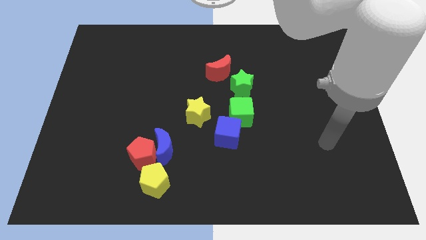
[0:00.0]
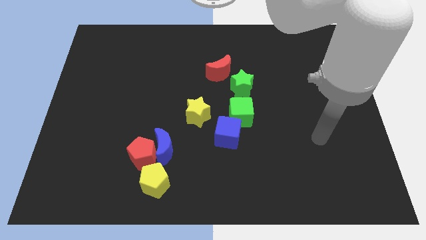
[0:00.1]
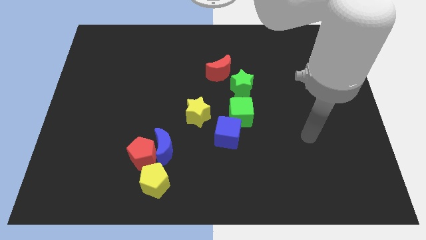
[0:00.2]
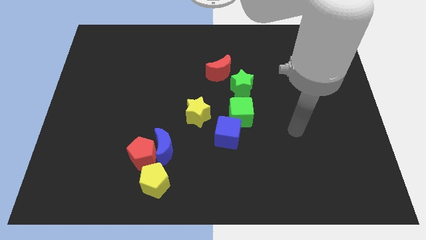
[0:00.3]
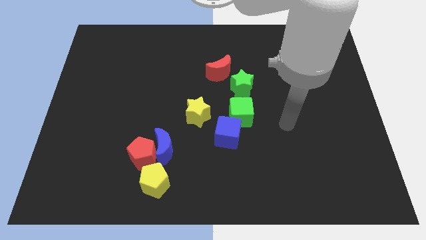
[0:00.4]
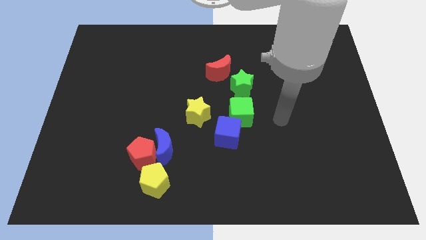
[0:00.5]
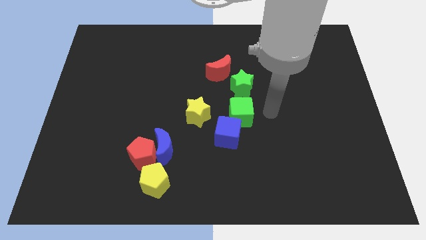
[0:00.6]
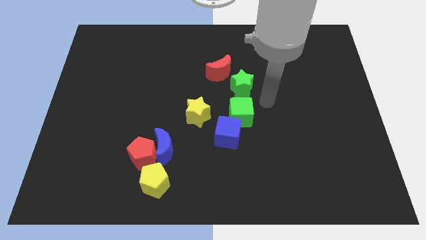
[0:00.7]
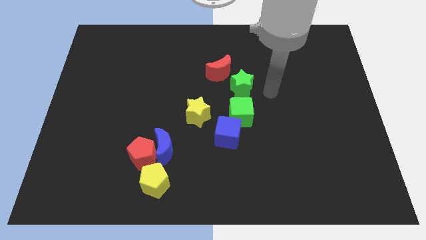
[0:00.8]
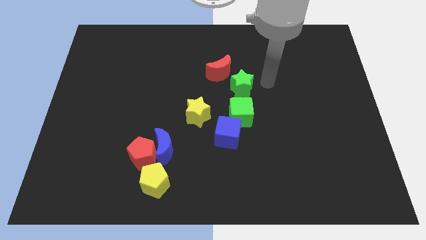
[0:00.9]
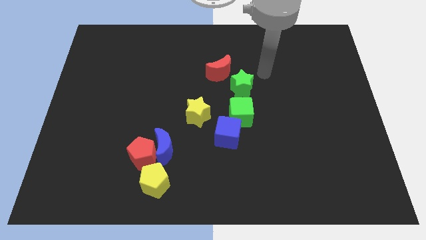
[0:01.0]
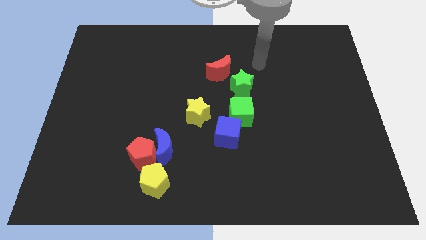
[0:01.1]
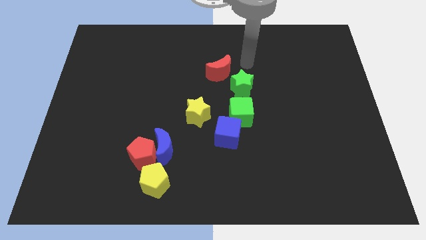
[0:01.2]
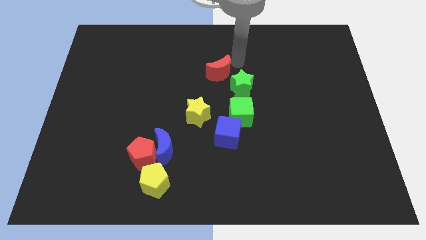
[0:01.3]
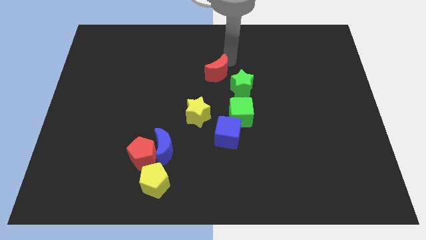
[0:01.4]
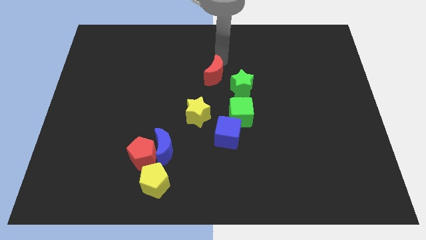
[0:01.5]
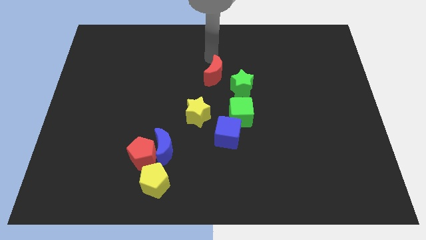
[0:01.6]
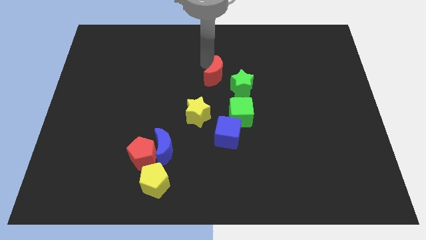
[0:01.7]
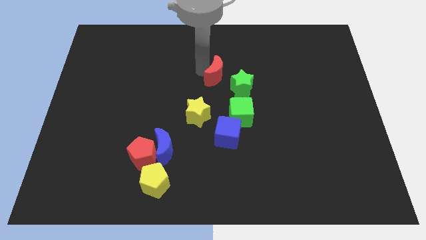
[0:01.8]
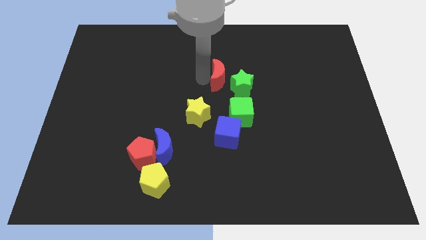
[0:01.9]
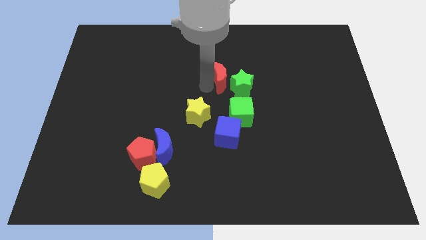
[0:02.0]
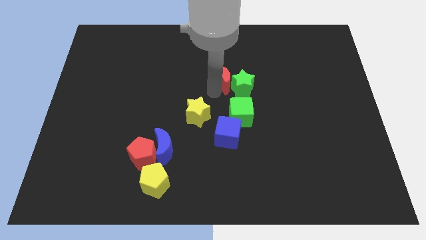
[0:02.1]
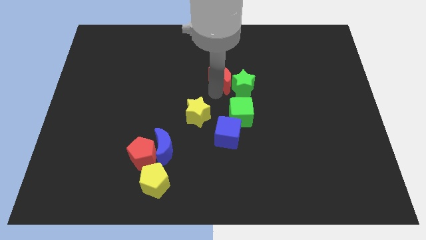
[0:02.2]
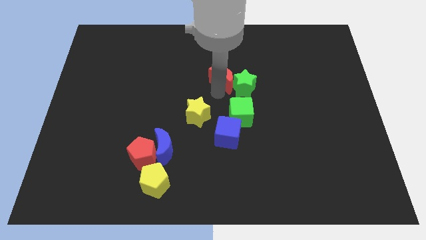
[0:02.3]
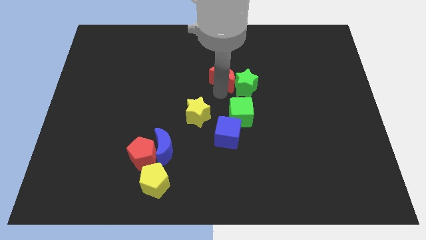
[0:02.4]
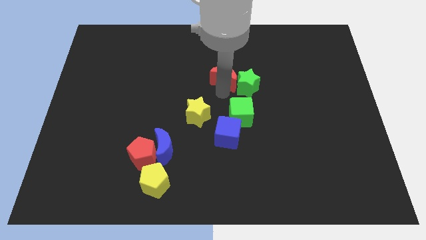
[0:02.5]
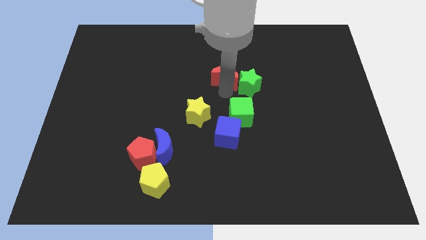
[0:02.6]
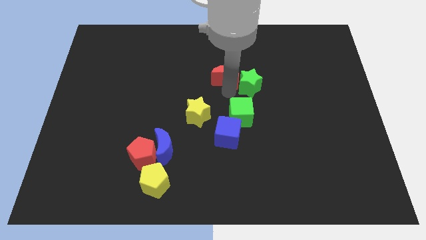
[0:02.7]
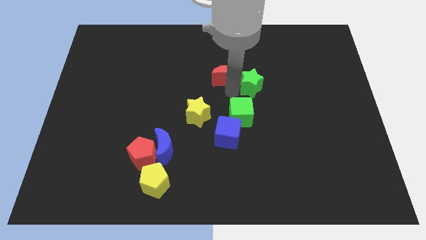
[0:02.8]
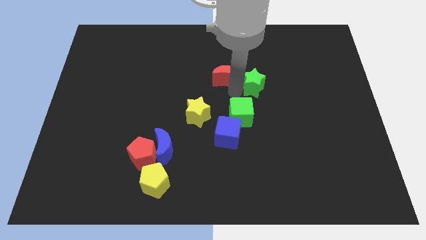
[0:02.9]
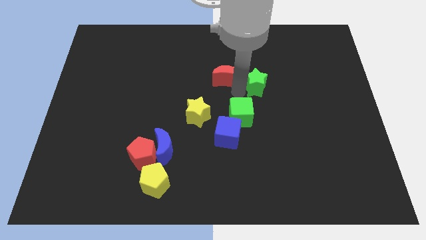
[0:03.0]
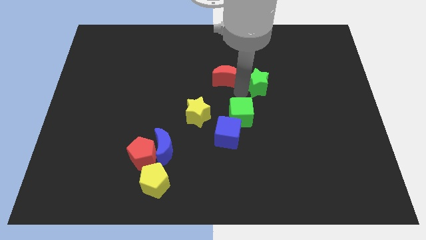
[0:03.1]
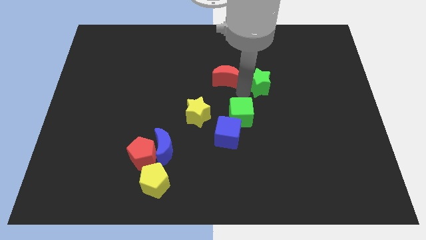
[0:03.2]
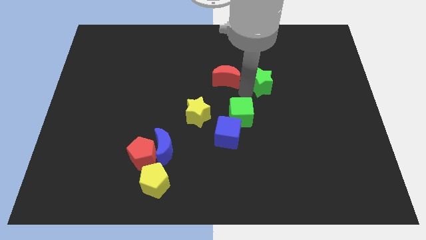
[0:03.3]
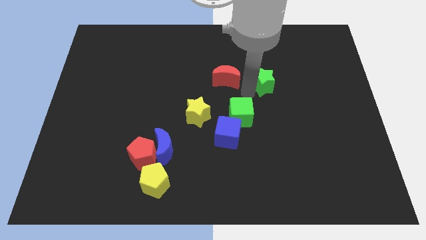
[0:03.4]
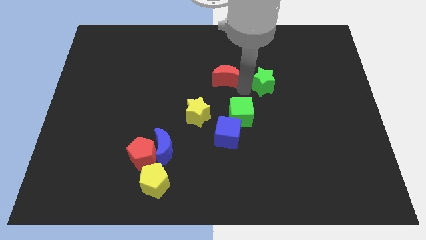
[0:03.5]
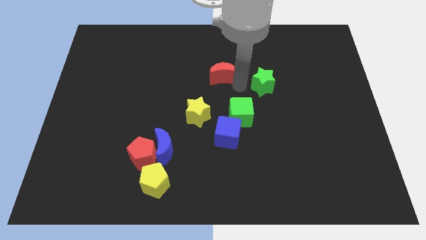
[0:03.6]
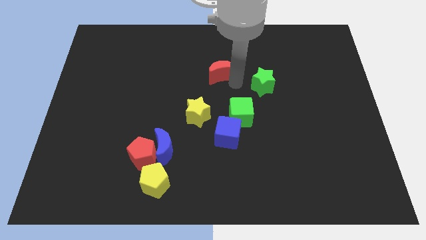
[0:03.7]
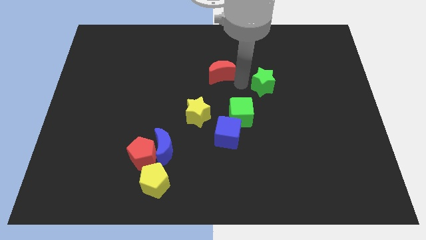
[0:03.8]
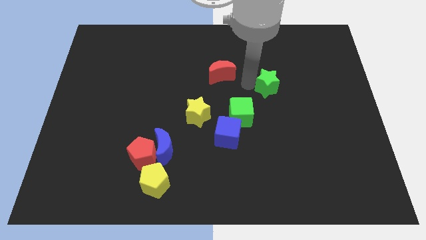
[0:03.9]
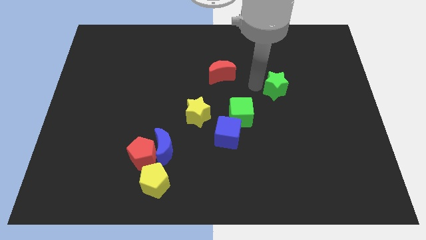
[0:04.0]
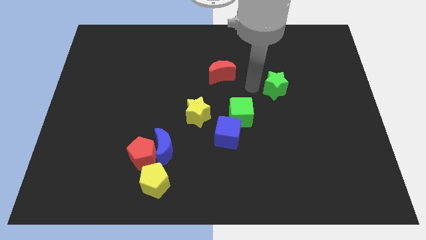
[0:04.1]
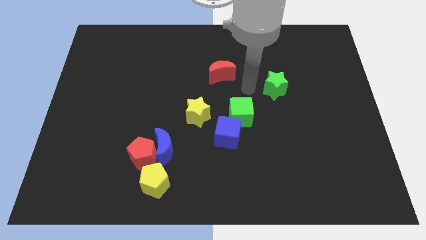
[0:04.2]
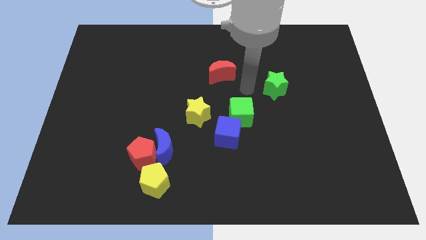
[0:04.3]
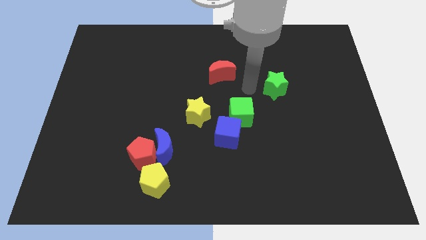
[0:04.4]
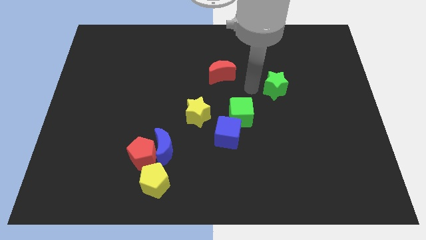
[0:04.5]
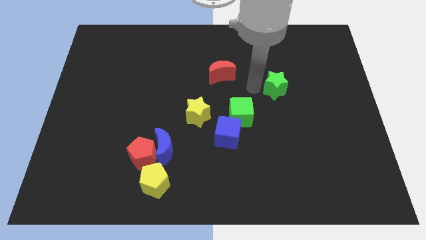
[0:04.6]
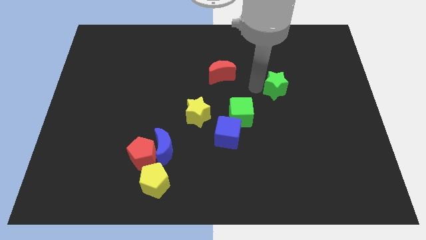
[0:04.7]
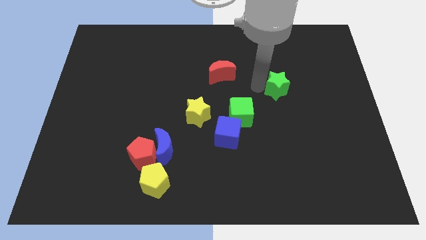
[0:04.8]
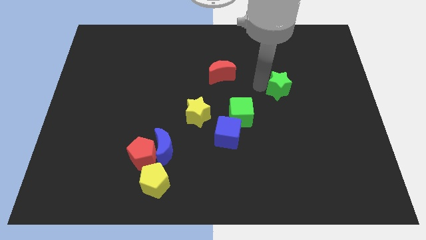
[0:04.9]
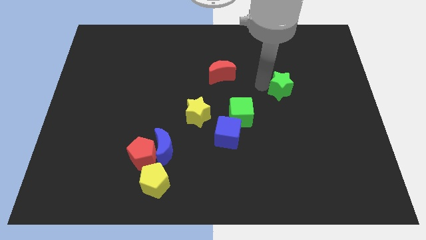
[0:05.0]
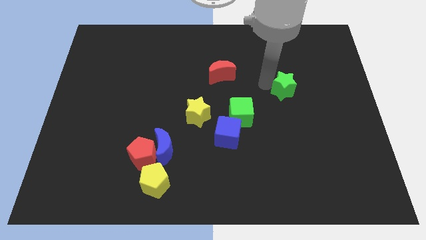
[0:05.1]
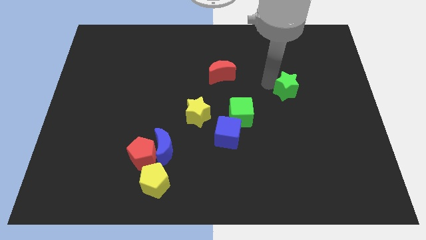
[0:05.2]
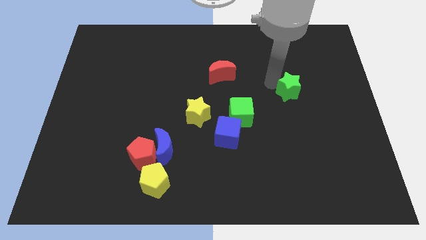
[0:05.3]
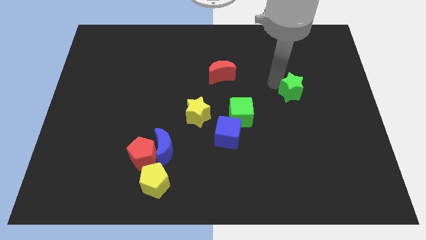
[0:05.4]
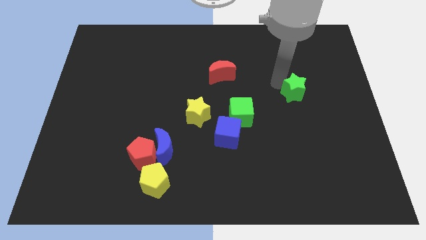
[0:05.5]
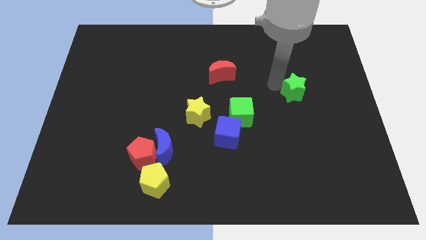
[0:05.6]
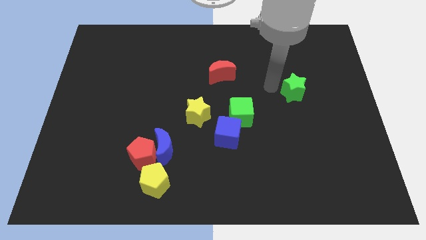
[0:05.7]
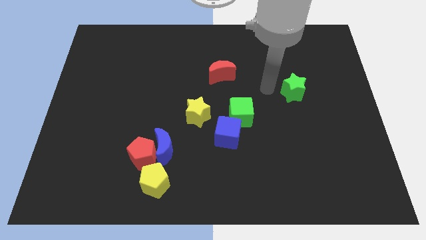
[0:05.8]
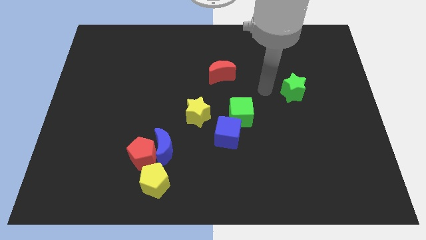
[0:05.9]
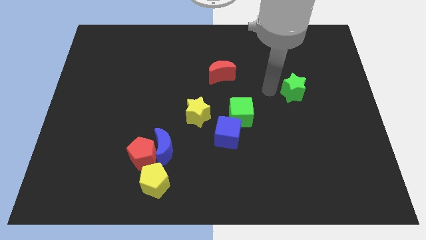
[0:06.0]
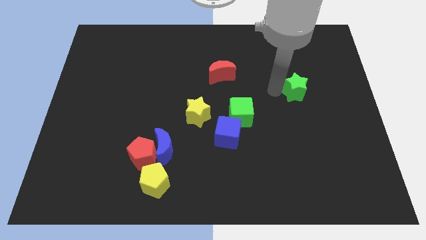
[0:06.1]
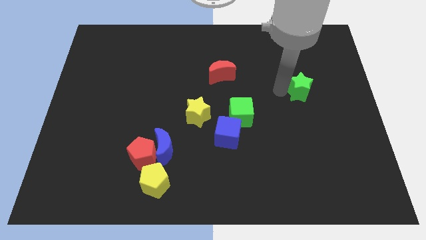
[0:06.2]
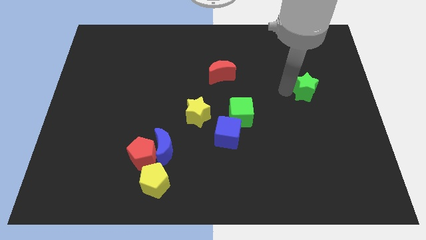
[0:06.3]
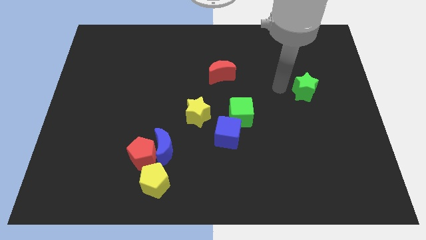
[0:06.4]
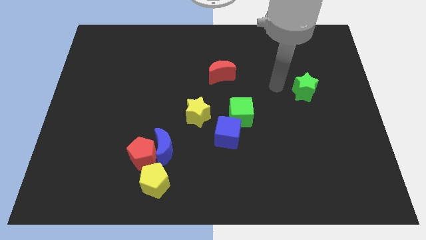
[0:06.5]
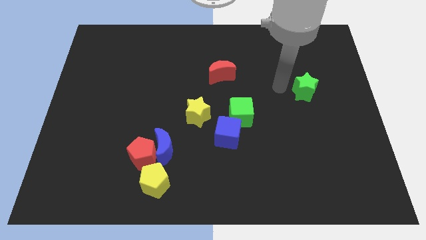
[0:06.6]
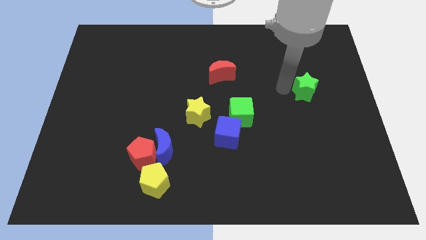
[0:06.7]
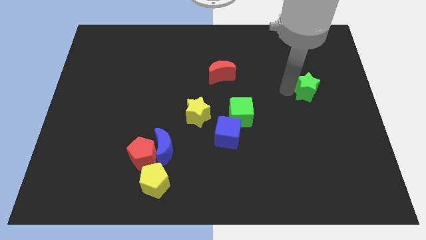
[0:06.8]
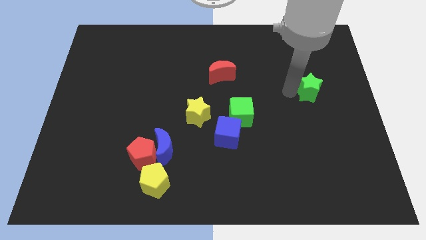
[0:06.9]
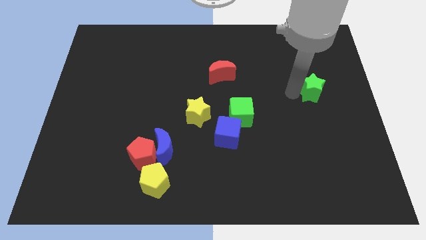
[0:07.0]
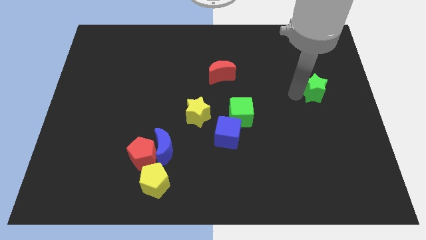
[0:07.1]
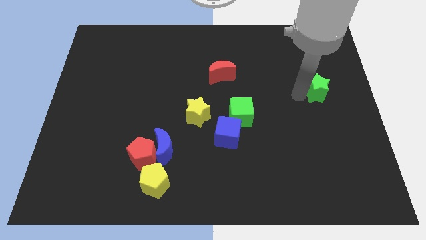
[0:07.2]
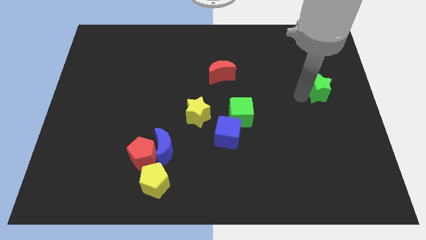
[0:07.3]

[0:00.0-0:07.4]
move the green star to the right side of the board
